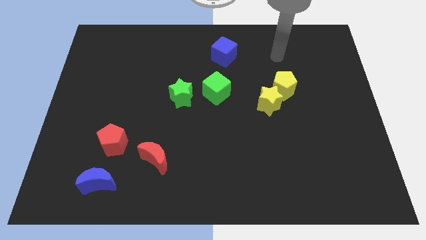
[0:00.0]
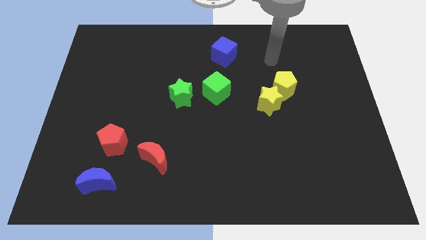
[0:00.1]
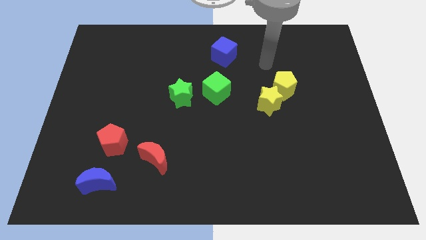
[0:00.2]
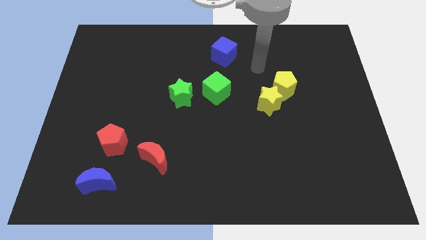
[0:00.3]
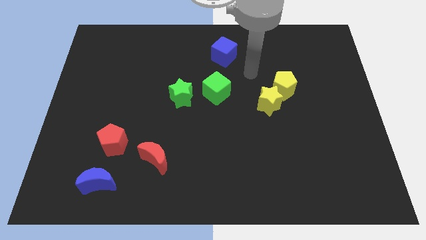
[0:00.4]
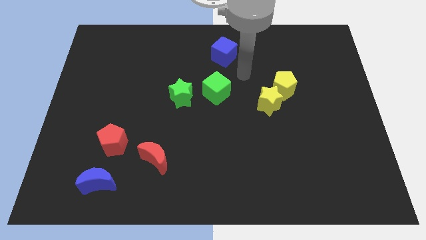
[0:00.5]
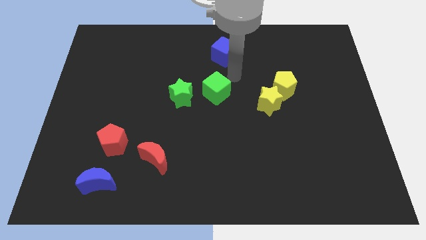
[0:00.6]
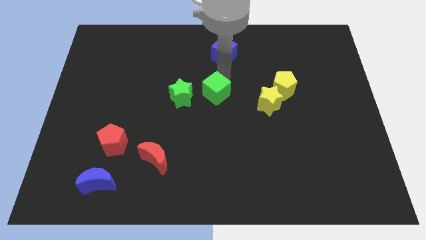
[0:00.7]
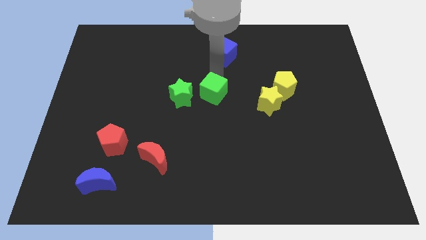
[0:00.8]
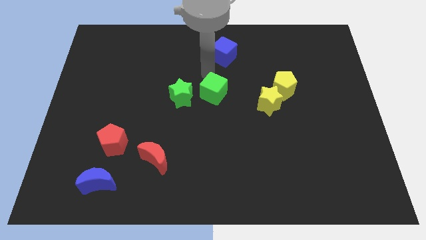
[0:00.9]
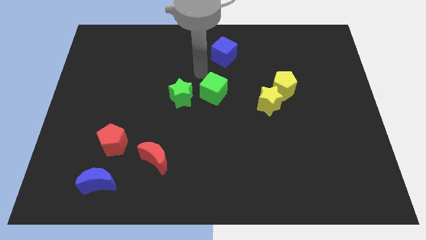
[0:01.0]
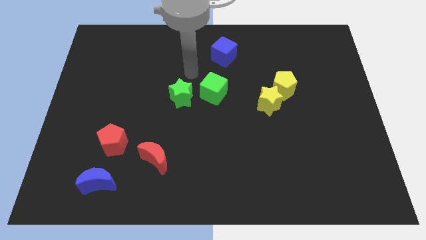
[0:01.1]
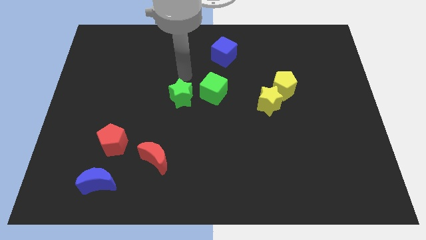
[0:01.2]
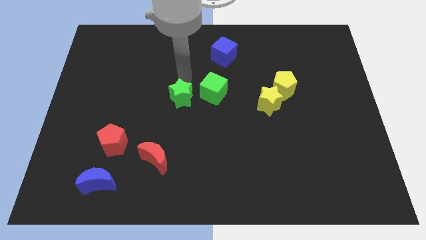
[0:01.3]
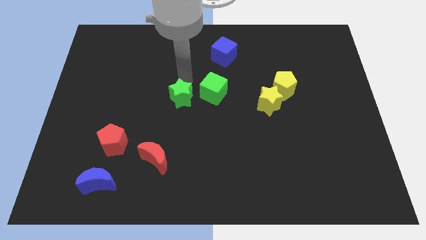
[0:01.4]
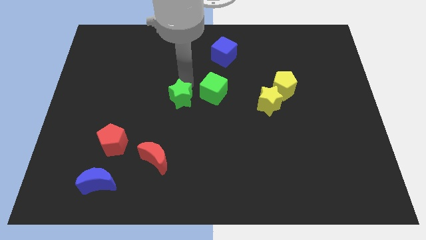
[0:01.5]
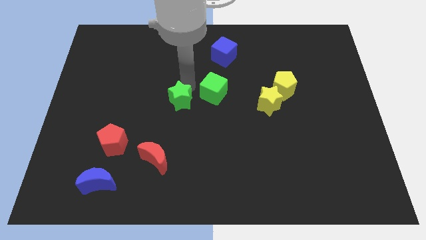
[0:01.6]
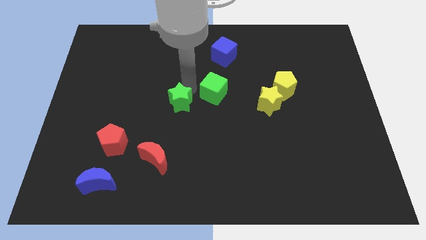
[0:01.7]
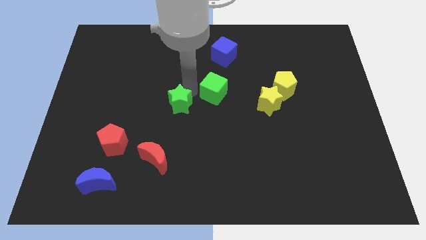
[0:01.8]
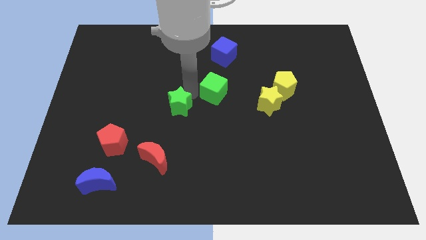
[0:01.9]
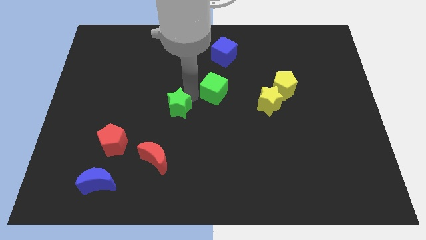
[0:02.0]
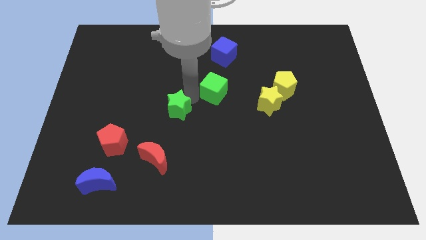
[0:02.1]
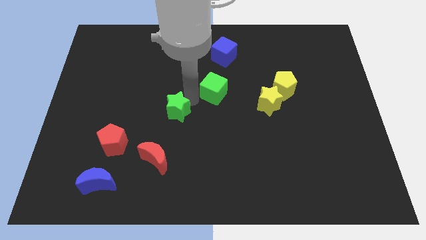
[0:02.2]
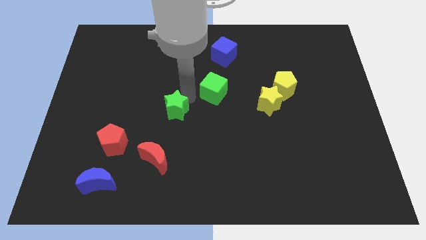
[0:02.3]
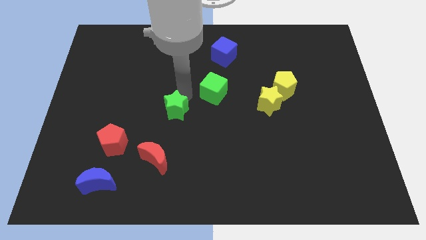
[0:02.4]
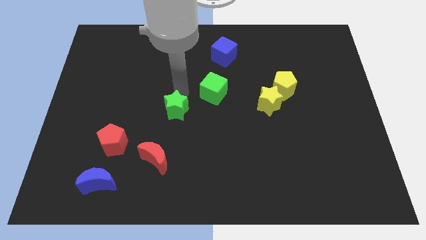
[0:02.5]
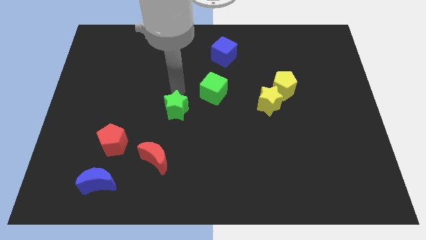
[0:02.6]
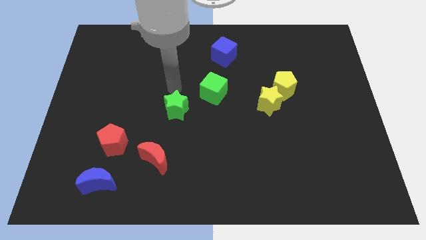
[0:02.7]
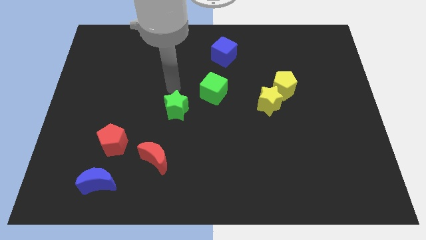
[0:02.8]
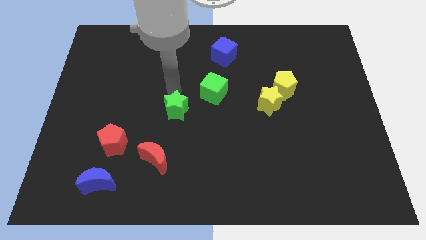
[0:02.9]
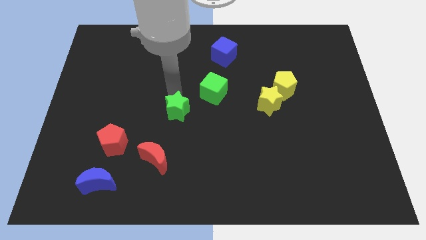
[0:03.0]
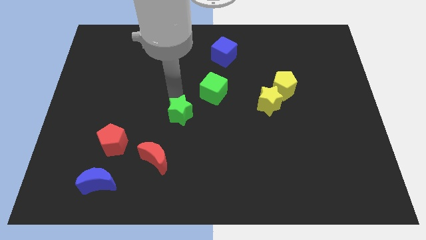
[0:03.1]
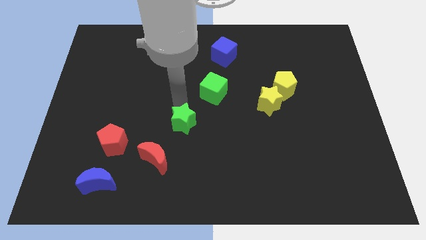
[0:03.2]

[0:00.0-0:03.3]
push the green star a little bit down

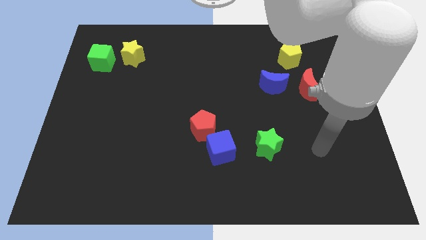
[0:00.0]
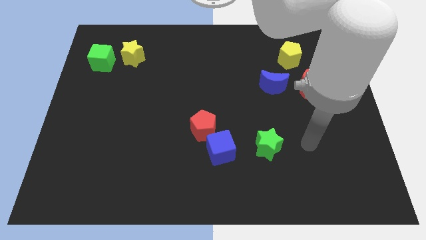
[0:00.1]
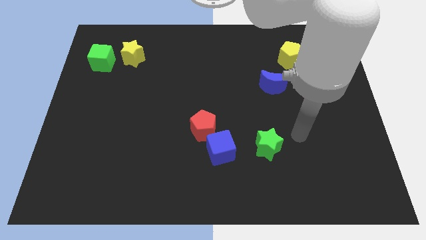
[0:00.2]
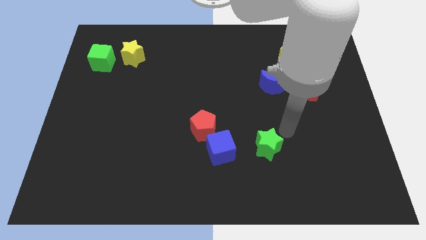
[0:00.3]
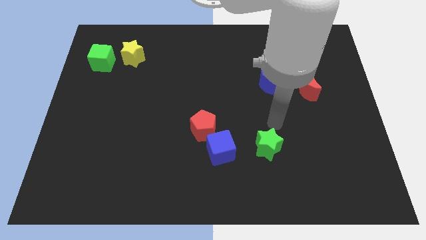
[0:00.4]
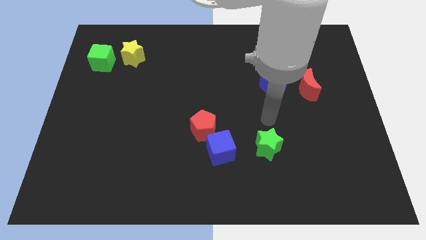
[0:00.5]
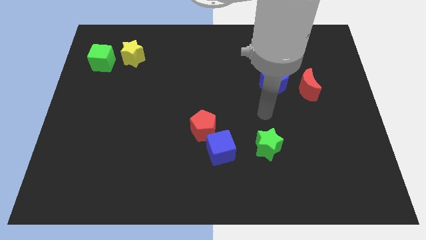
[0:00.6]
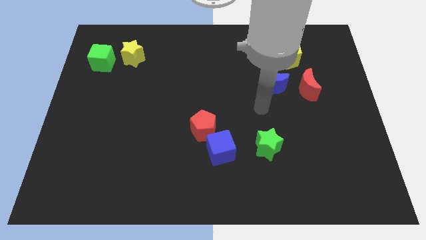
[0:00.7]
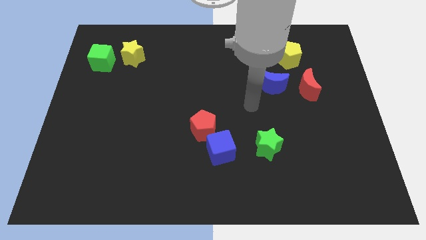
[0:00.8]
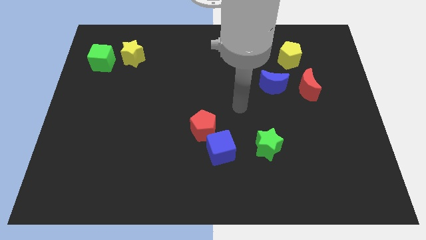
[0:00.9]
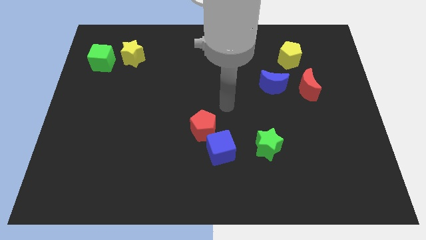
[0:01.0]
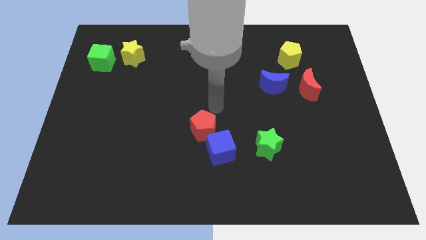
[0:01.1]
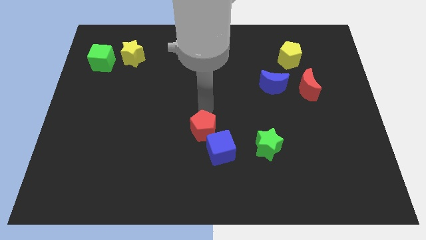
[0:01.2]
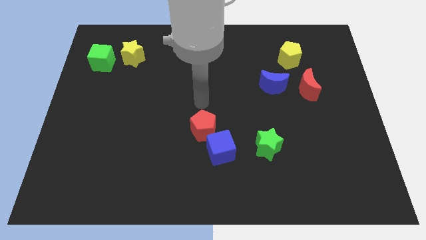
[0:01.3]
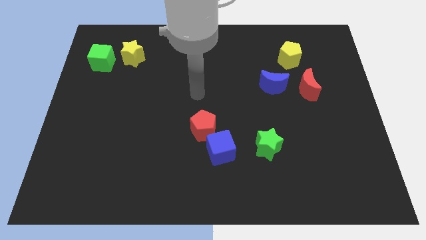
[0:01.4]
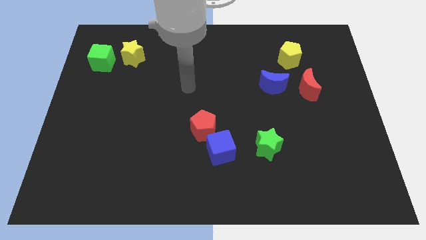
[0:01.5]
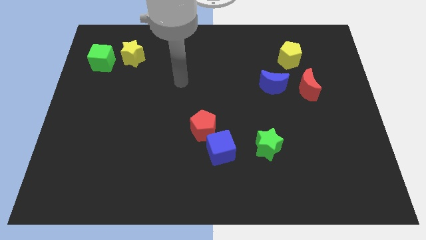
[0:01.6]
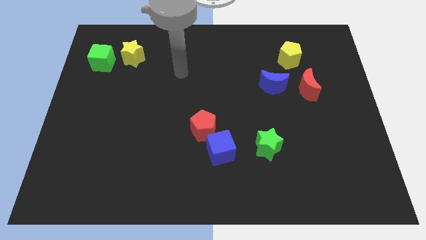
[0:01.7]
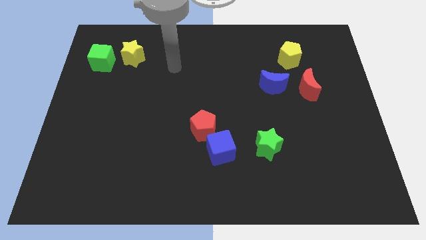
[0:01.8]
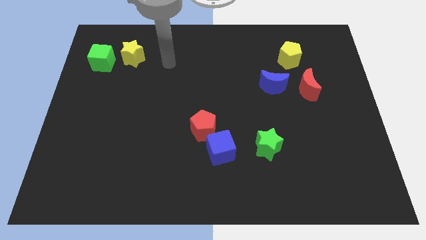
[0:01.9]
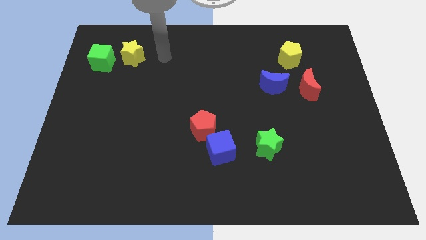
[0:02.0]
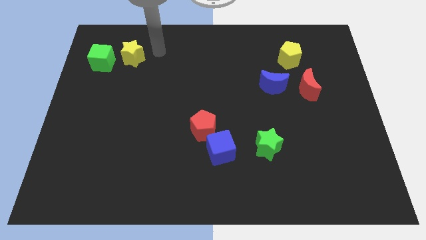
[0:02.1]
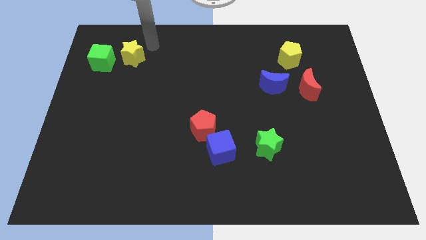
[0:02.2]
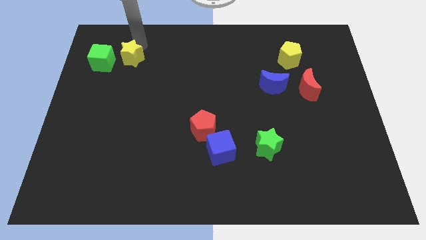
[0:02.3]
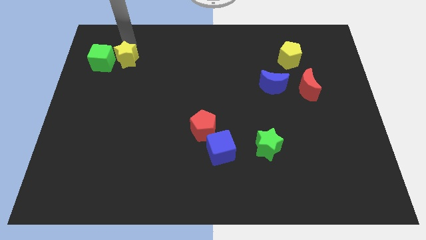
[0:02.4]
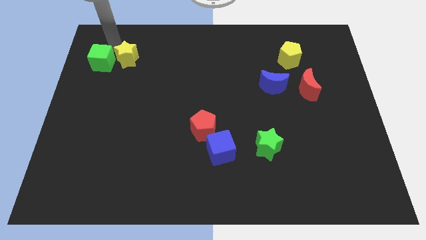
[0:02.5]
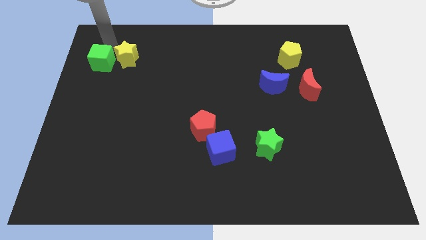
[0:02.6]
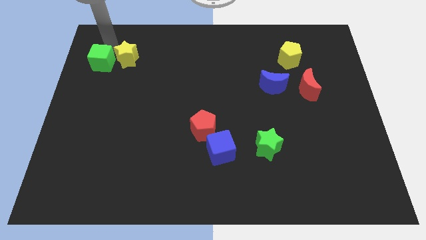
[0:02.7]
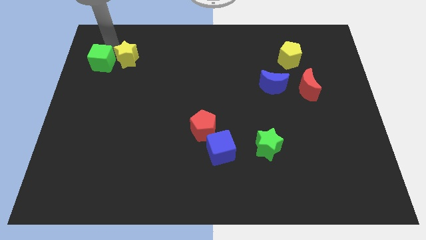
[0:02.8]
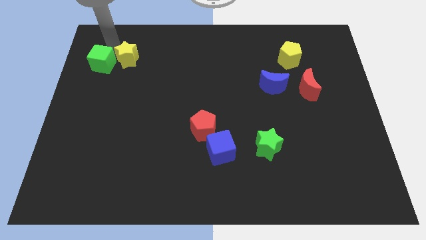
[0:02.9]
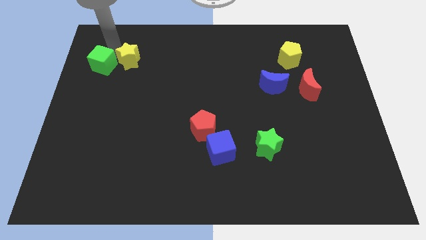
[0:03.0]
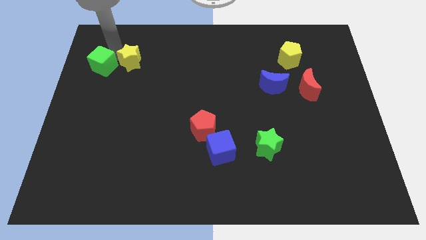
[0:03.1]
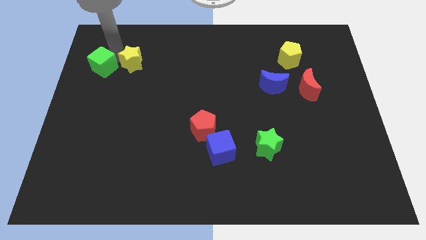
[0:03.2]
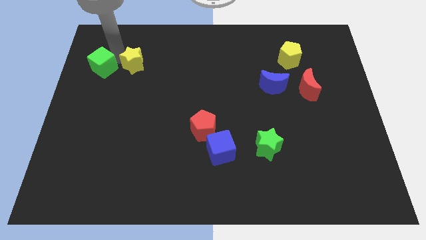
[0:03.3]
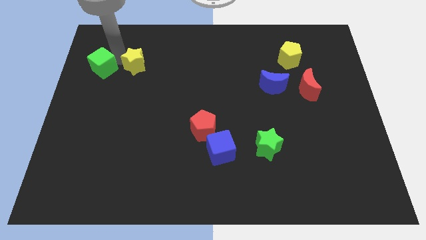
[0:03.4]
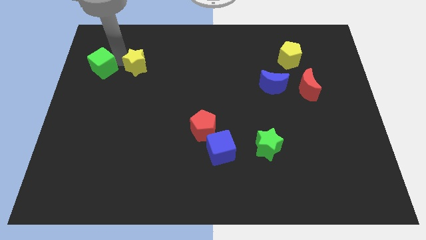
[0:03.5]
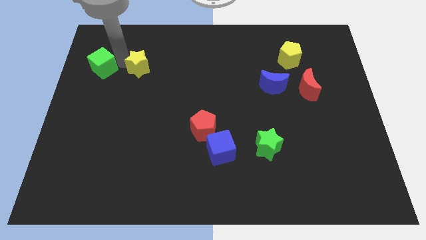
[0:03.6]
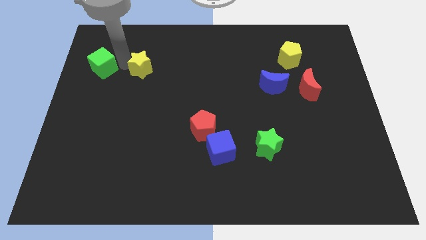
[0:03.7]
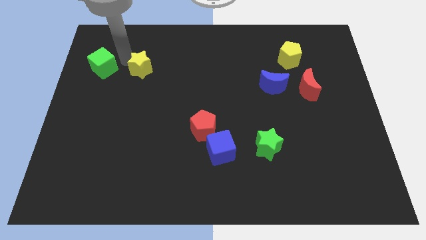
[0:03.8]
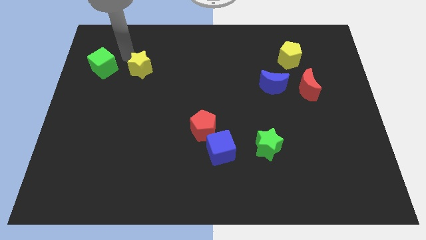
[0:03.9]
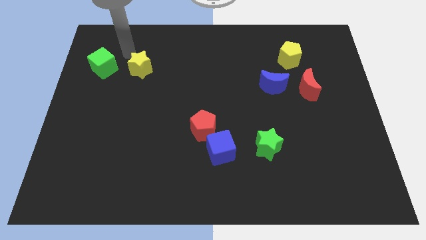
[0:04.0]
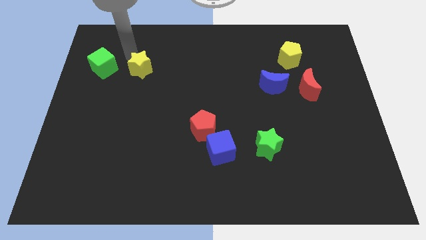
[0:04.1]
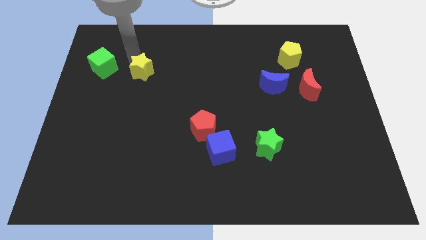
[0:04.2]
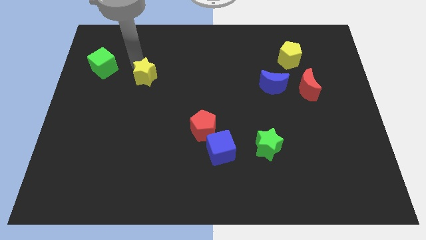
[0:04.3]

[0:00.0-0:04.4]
move the yellow star downwards and then to the right a little
